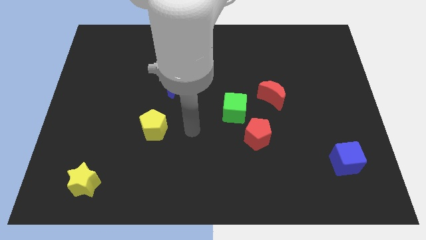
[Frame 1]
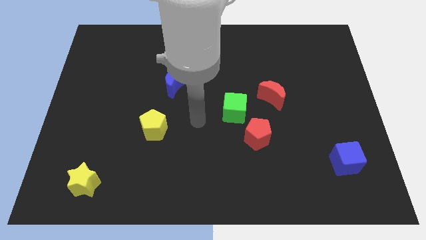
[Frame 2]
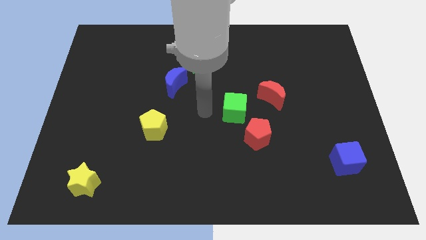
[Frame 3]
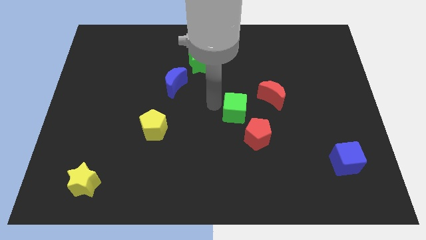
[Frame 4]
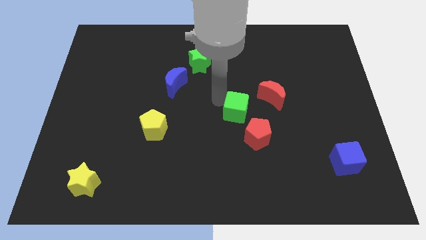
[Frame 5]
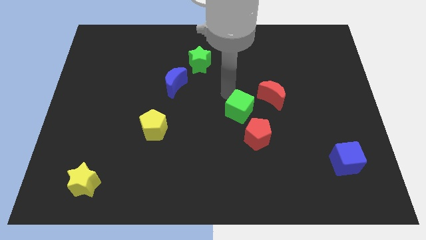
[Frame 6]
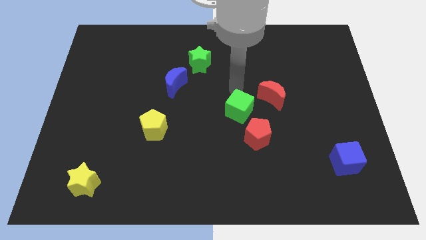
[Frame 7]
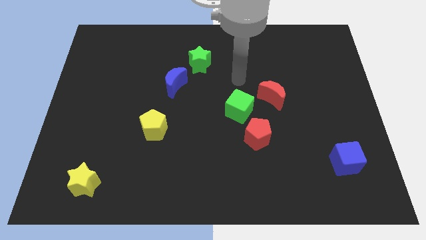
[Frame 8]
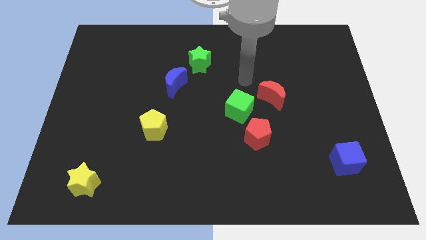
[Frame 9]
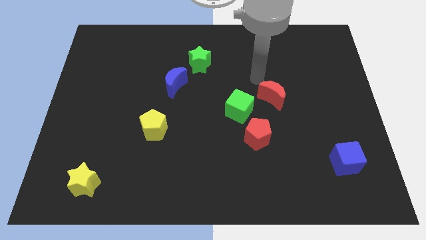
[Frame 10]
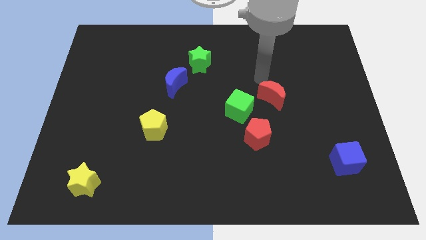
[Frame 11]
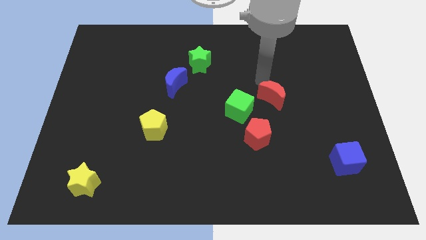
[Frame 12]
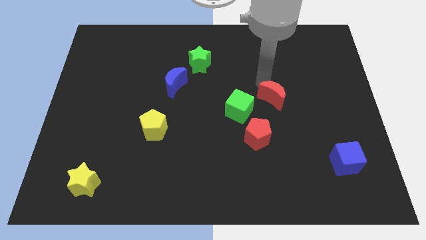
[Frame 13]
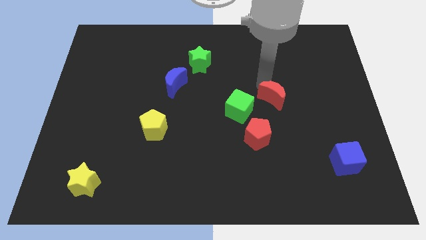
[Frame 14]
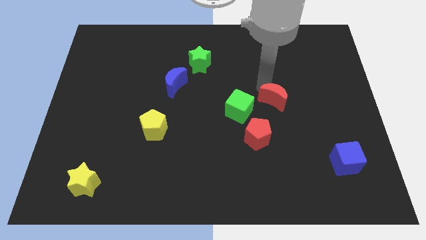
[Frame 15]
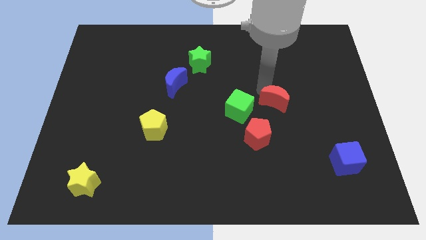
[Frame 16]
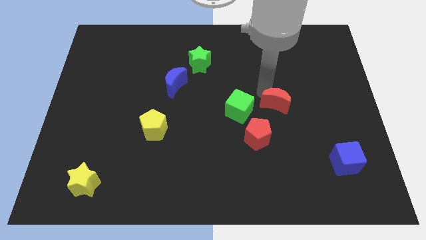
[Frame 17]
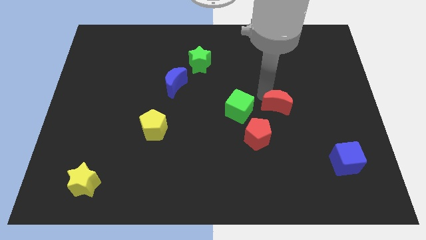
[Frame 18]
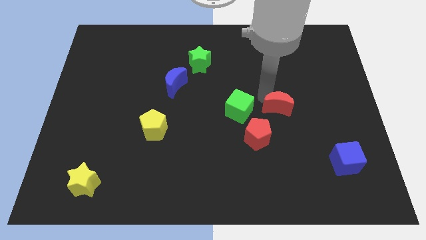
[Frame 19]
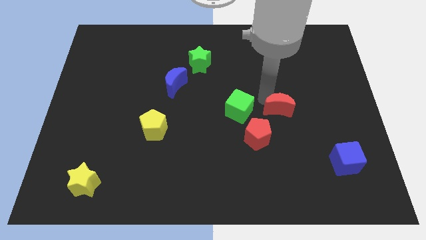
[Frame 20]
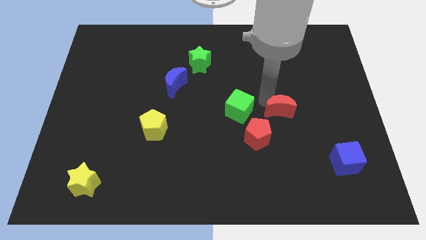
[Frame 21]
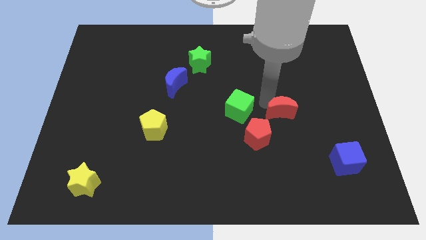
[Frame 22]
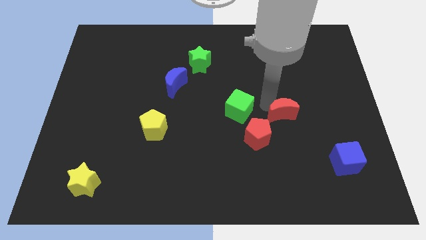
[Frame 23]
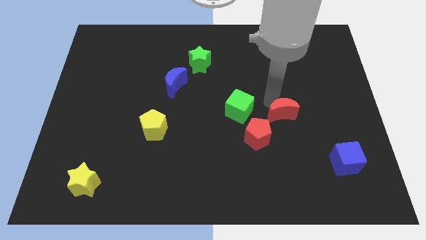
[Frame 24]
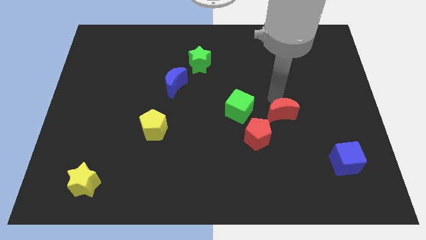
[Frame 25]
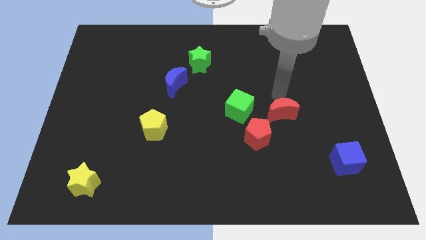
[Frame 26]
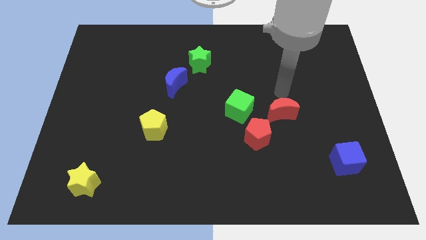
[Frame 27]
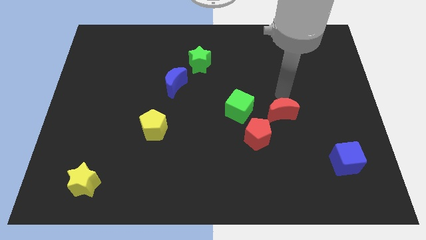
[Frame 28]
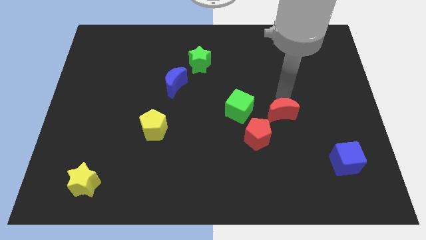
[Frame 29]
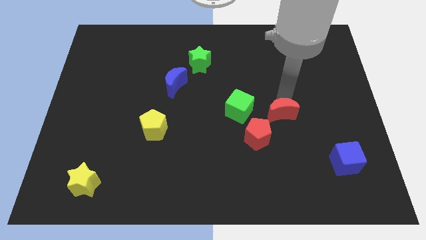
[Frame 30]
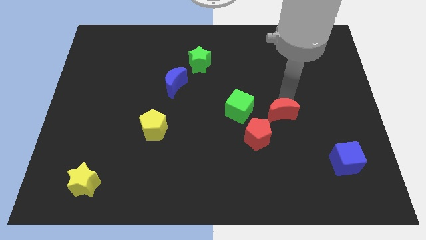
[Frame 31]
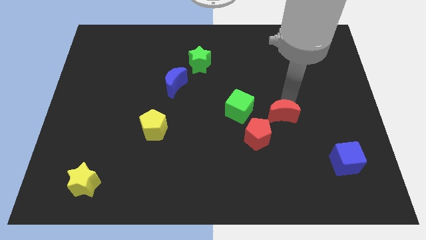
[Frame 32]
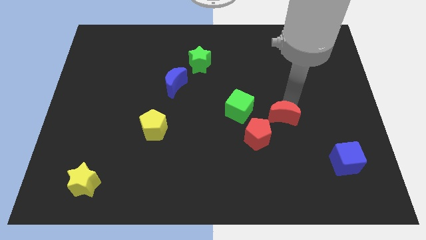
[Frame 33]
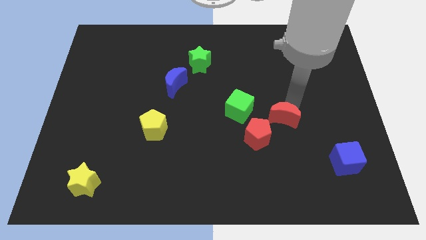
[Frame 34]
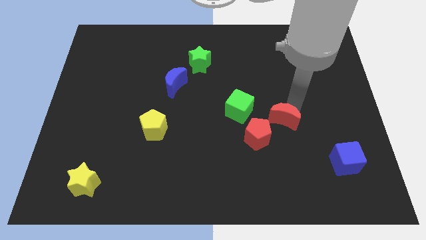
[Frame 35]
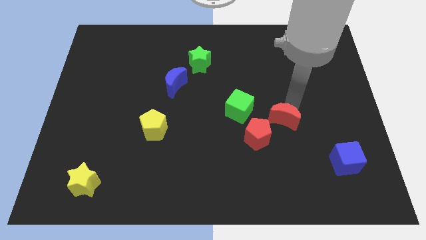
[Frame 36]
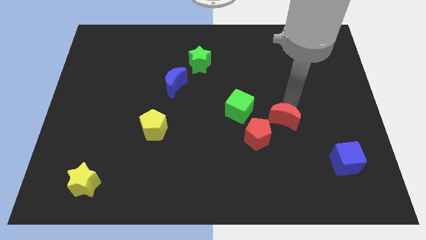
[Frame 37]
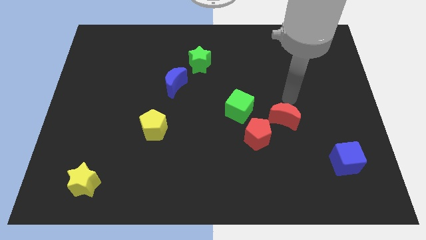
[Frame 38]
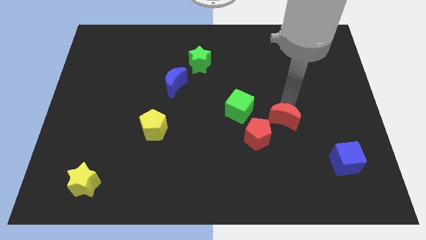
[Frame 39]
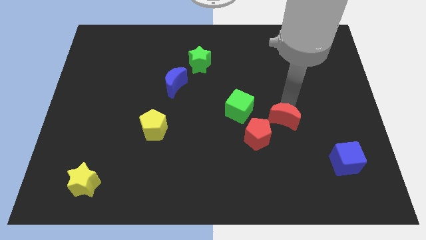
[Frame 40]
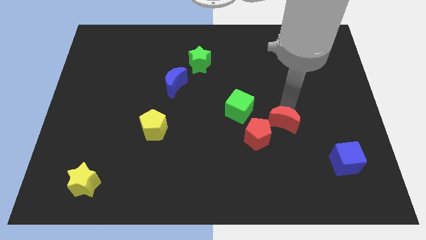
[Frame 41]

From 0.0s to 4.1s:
slide the red moon downwards a little

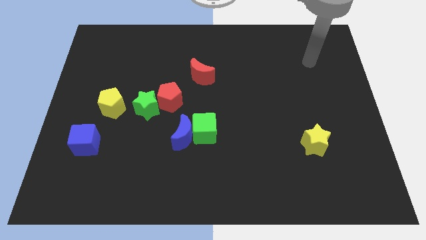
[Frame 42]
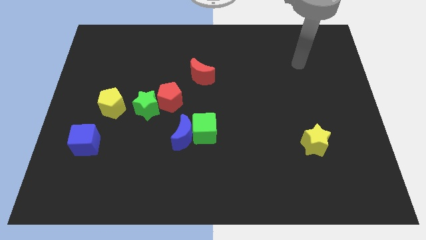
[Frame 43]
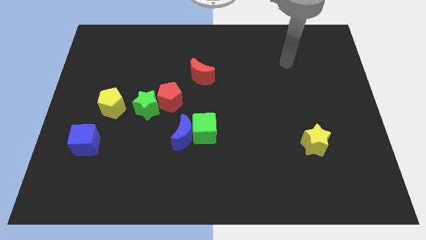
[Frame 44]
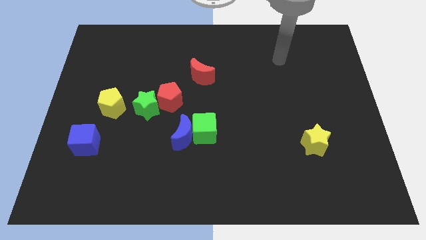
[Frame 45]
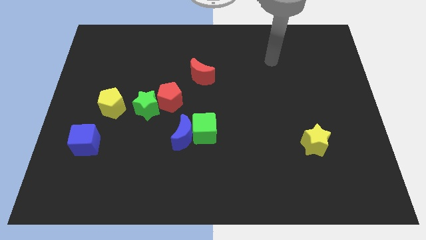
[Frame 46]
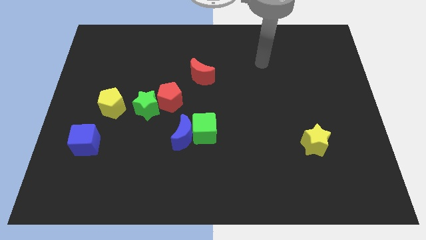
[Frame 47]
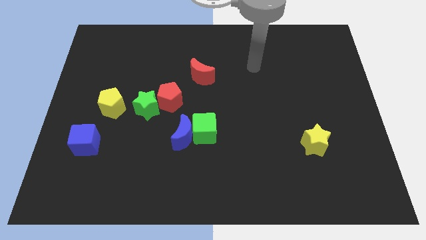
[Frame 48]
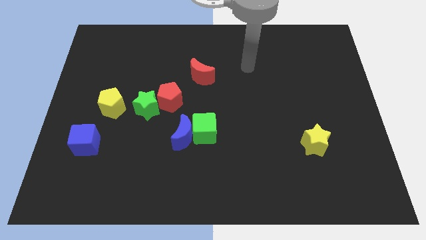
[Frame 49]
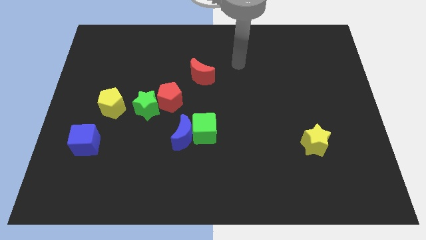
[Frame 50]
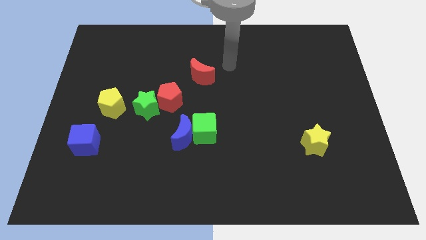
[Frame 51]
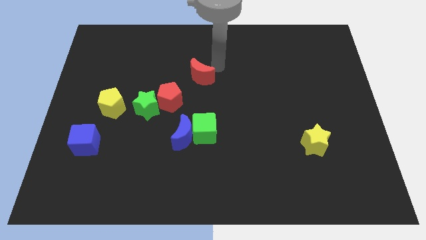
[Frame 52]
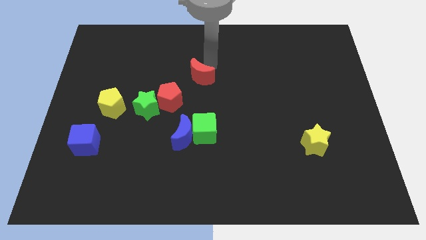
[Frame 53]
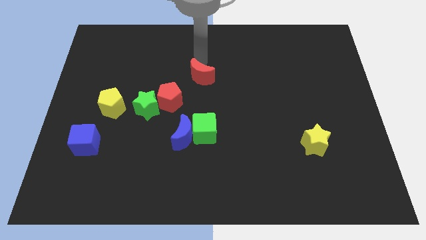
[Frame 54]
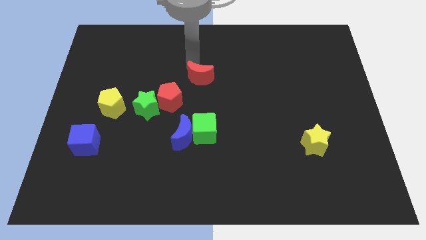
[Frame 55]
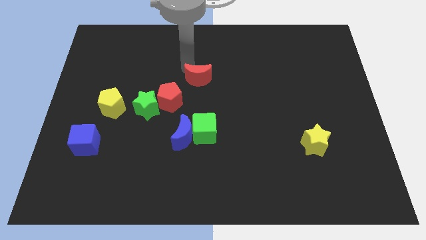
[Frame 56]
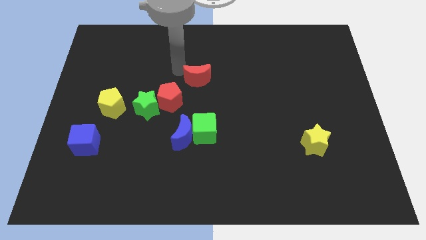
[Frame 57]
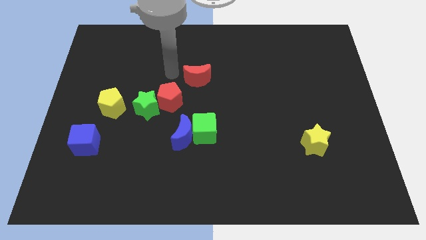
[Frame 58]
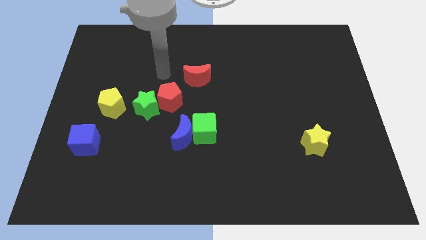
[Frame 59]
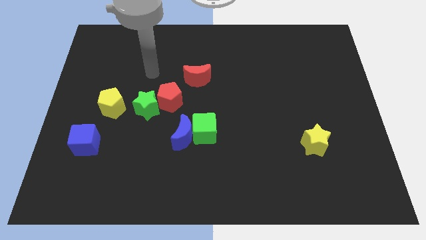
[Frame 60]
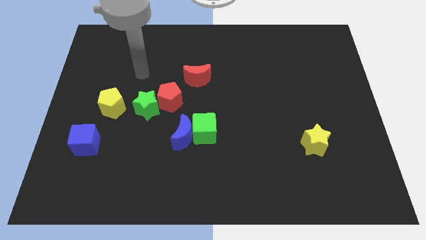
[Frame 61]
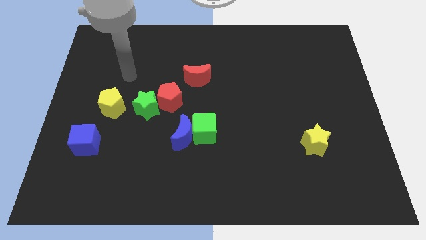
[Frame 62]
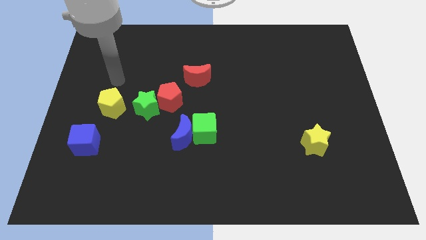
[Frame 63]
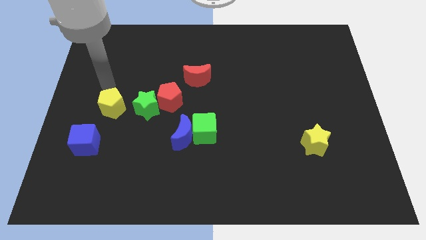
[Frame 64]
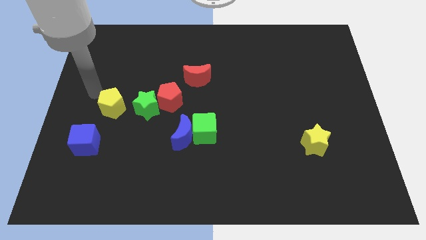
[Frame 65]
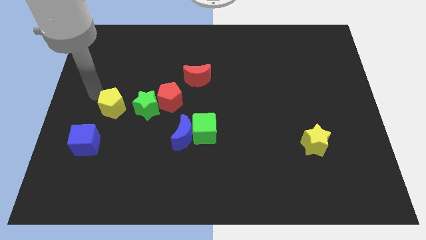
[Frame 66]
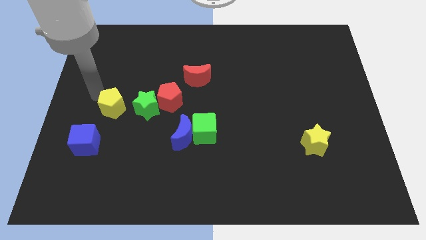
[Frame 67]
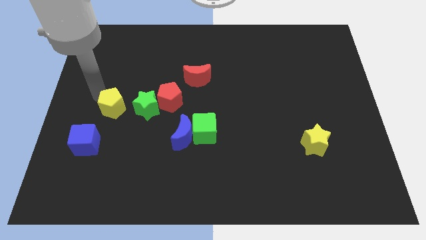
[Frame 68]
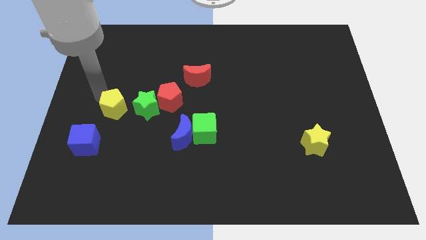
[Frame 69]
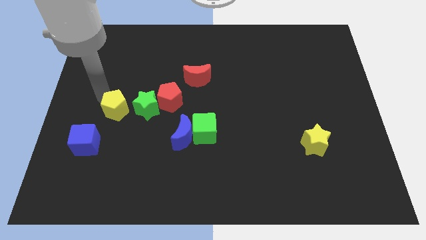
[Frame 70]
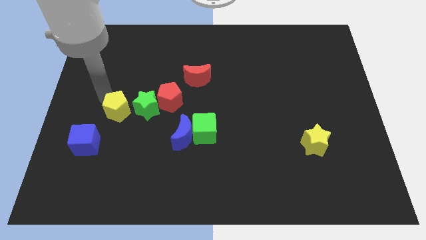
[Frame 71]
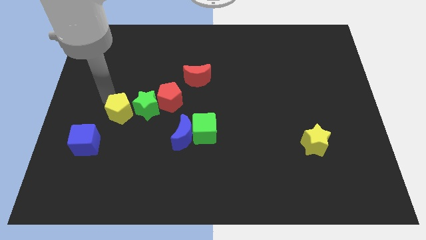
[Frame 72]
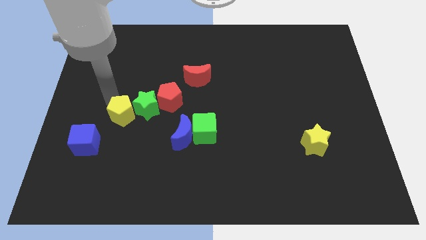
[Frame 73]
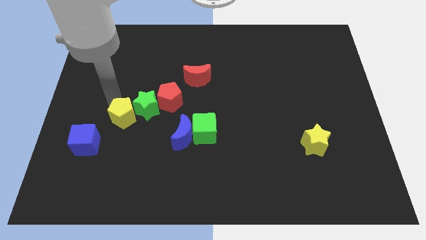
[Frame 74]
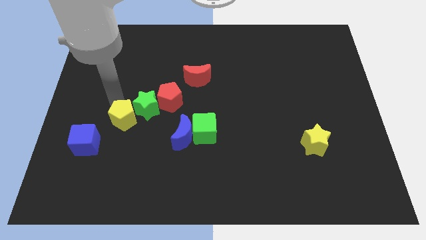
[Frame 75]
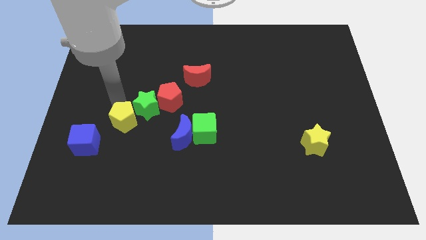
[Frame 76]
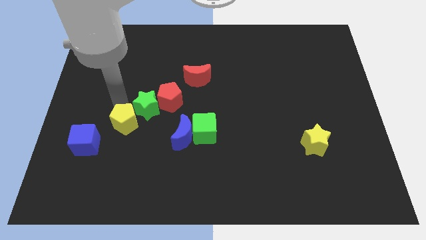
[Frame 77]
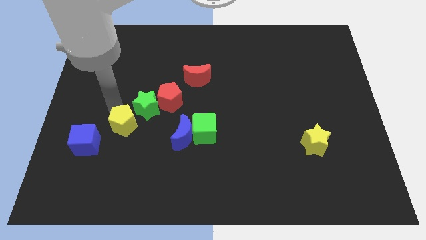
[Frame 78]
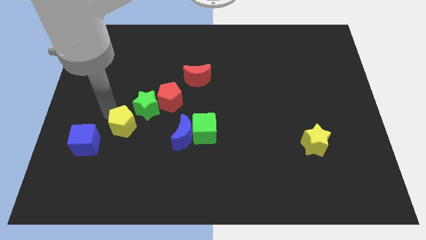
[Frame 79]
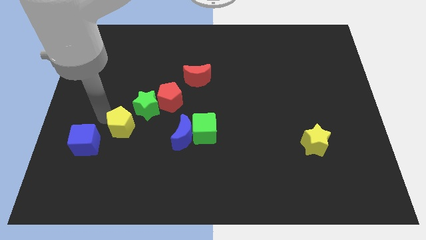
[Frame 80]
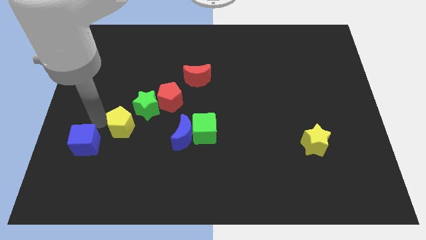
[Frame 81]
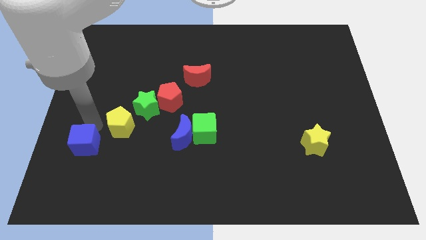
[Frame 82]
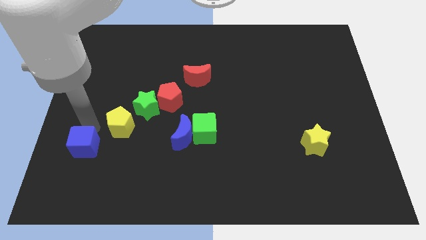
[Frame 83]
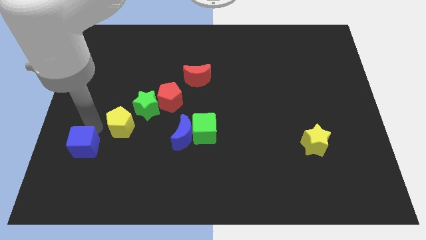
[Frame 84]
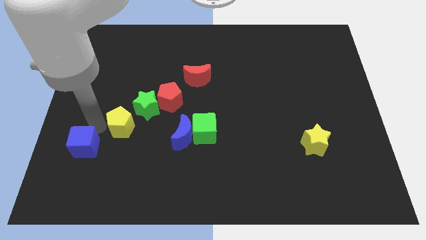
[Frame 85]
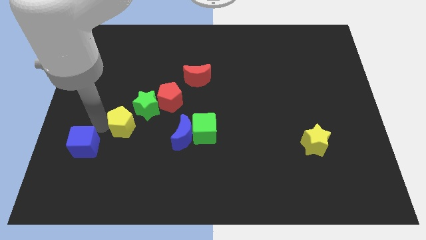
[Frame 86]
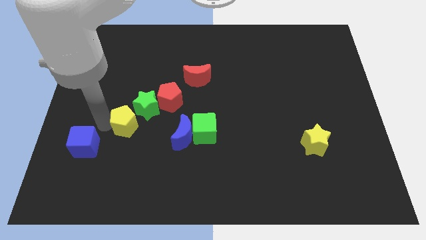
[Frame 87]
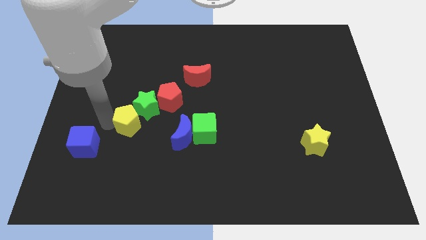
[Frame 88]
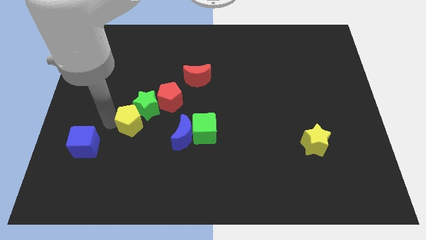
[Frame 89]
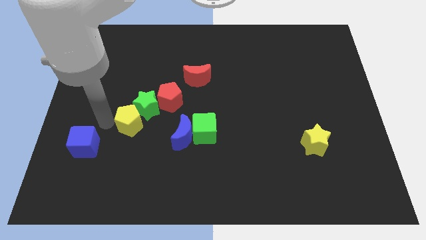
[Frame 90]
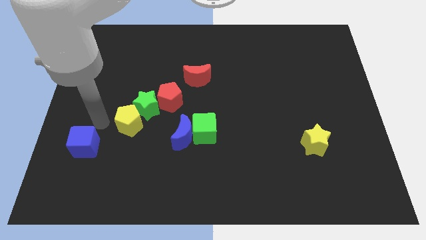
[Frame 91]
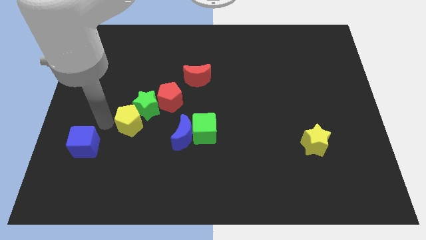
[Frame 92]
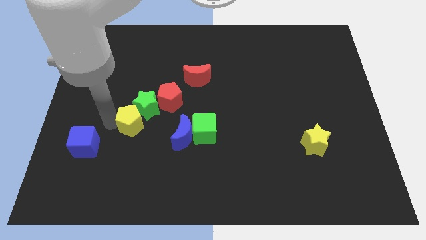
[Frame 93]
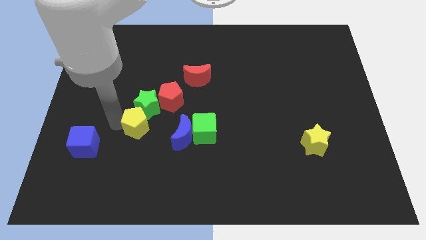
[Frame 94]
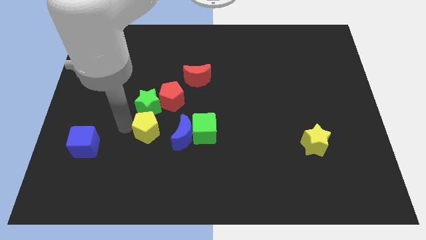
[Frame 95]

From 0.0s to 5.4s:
slightly move the yellow pentagon right
